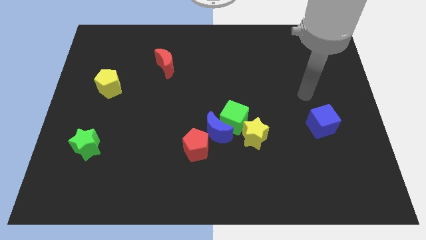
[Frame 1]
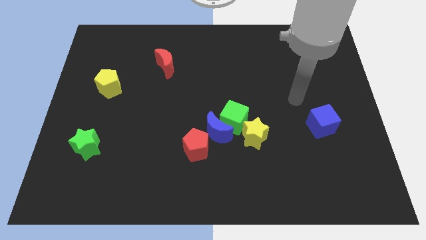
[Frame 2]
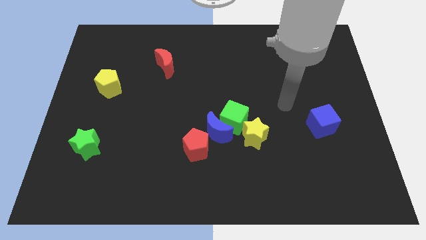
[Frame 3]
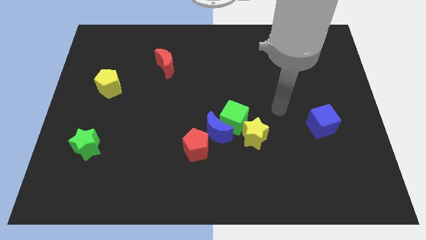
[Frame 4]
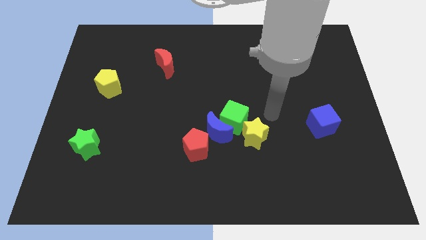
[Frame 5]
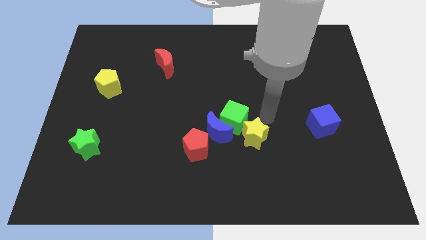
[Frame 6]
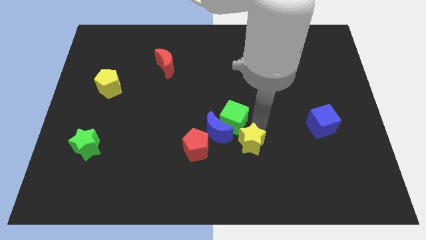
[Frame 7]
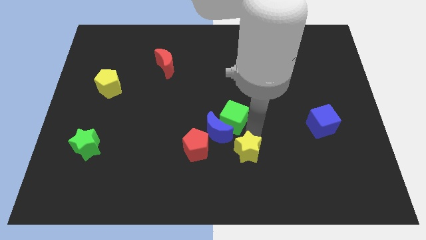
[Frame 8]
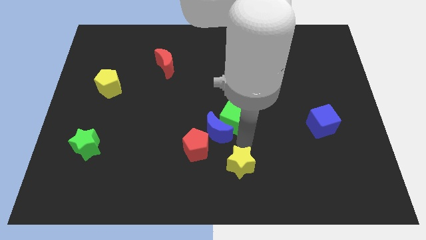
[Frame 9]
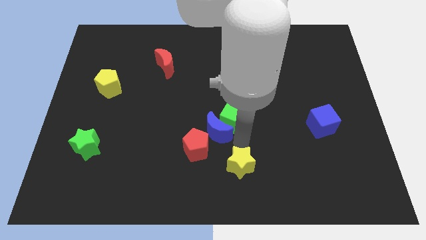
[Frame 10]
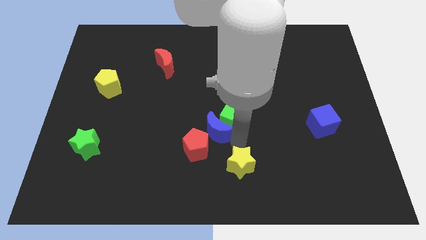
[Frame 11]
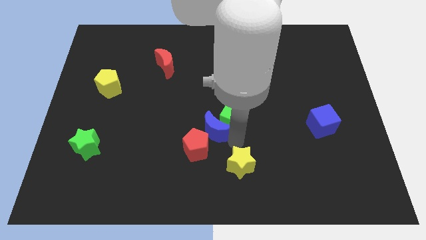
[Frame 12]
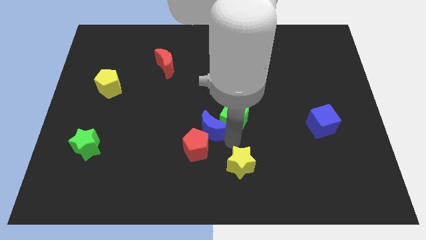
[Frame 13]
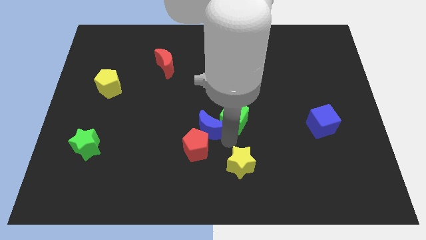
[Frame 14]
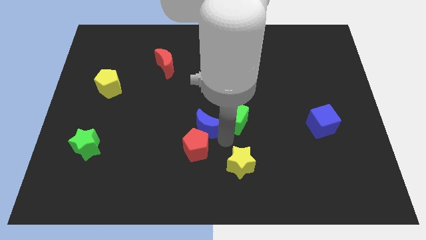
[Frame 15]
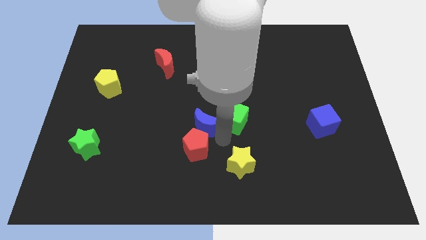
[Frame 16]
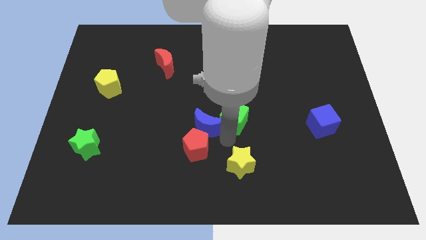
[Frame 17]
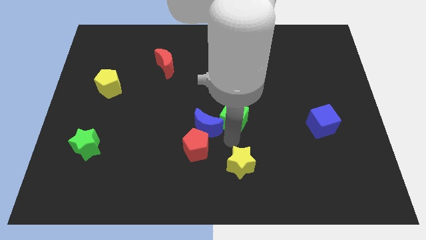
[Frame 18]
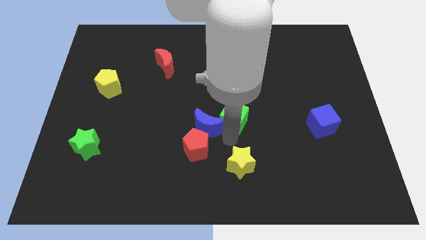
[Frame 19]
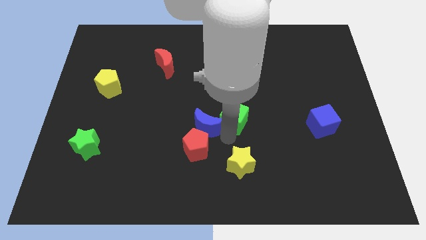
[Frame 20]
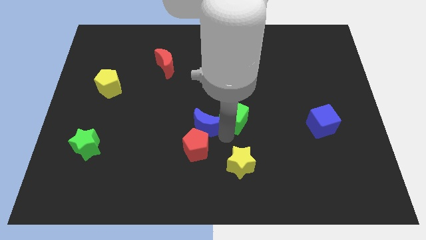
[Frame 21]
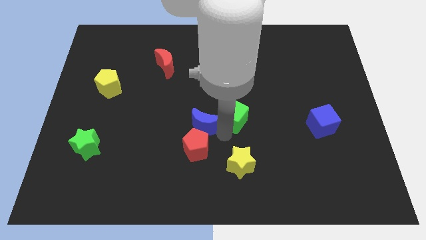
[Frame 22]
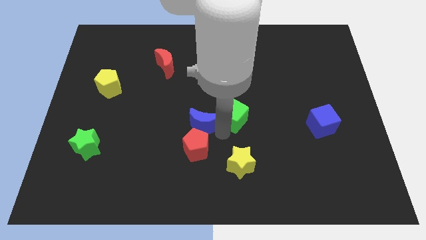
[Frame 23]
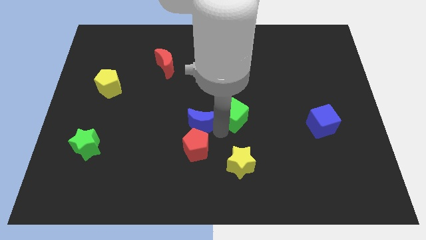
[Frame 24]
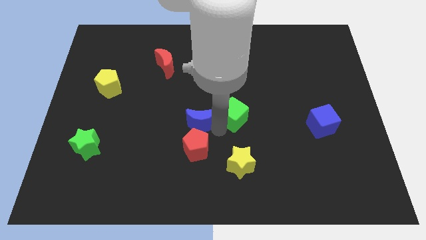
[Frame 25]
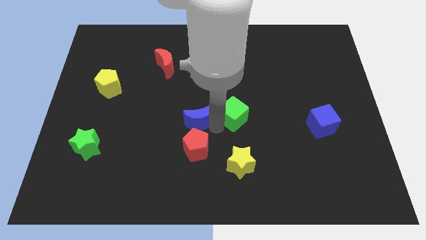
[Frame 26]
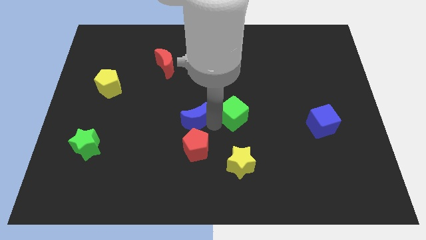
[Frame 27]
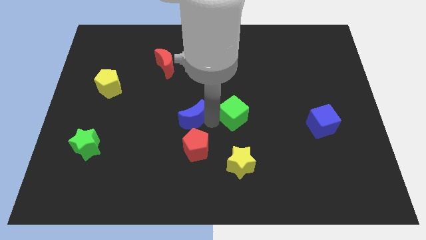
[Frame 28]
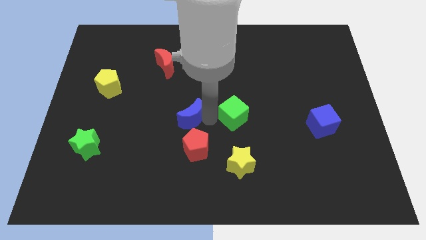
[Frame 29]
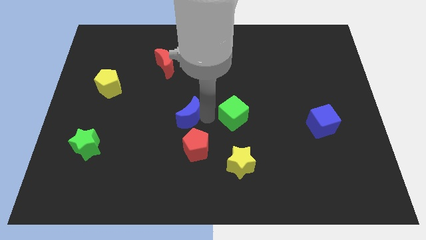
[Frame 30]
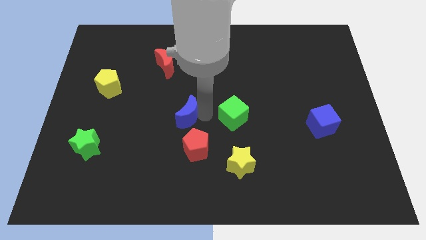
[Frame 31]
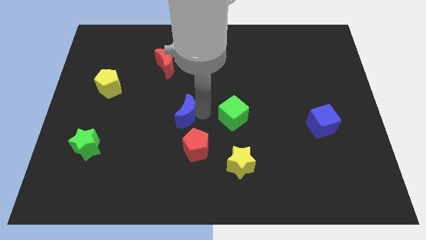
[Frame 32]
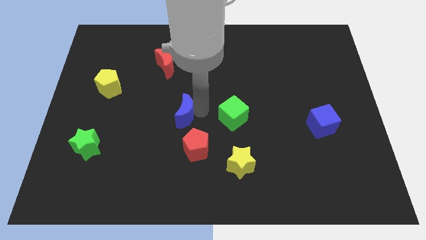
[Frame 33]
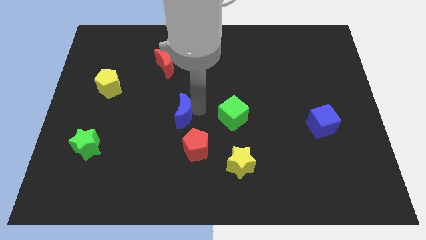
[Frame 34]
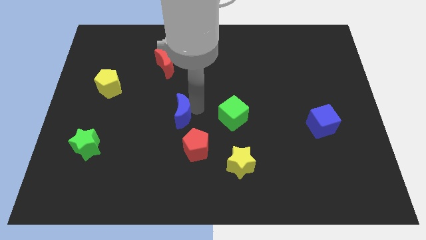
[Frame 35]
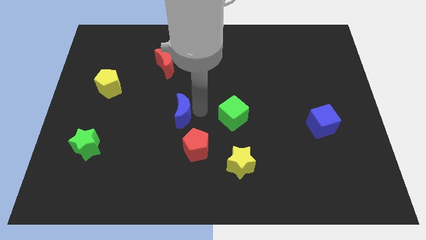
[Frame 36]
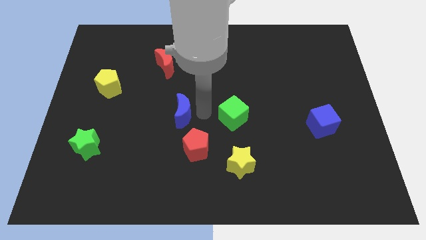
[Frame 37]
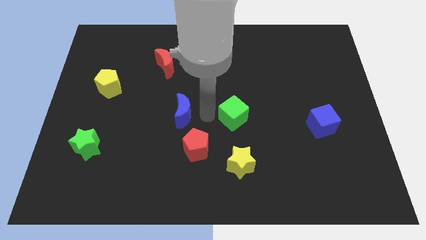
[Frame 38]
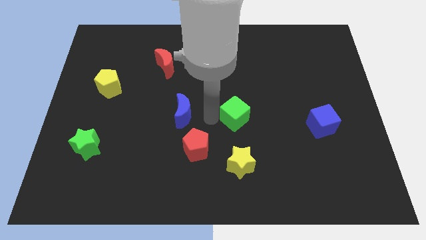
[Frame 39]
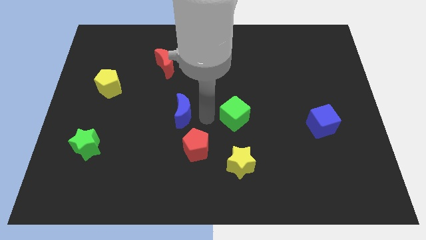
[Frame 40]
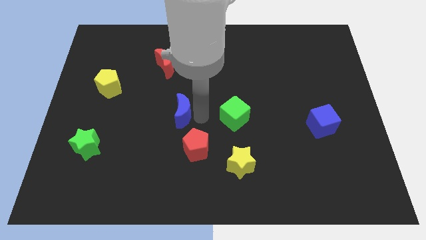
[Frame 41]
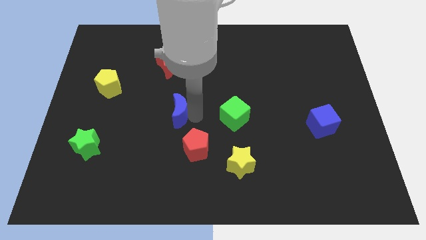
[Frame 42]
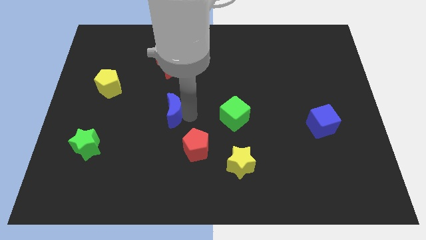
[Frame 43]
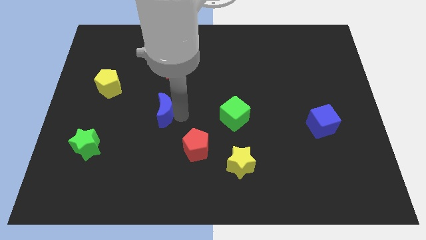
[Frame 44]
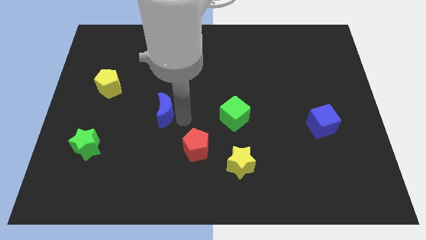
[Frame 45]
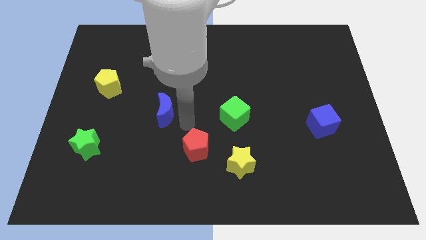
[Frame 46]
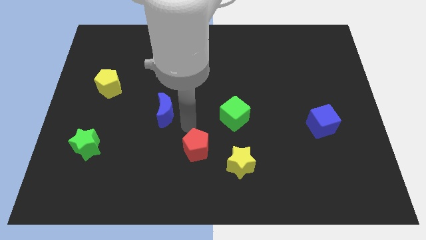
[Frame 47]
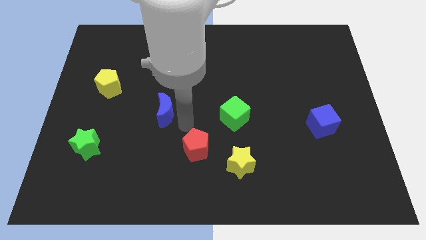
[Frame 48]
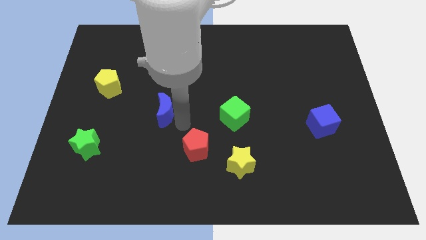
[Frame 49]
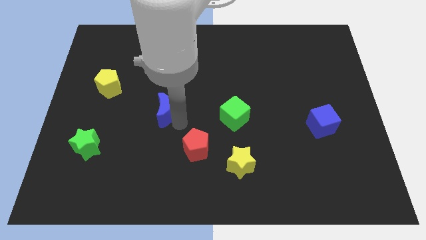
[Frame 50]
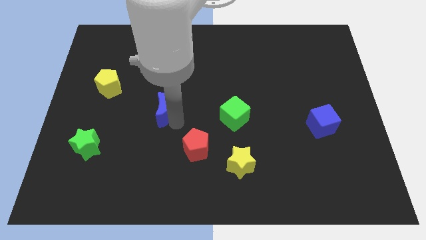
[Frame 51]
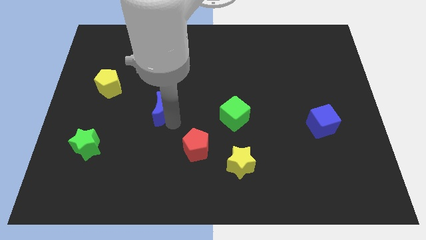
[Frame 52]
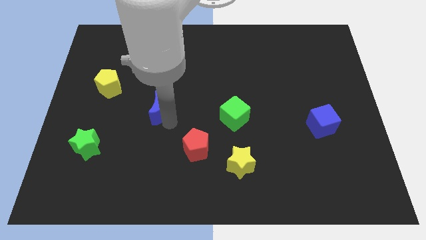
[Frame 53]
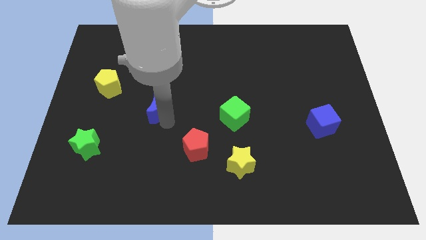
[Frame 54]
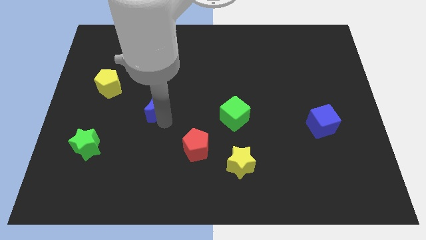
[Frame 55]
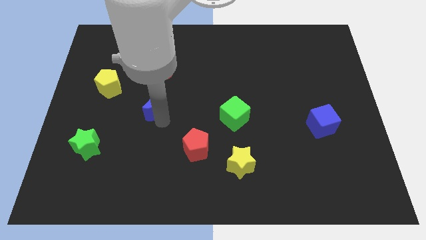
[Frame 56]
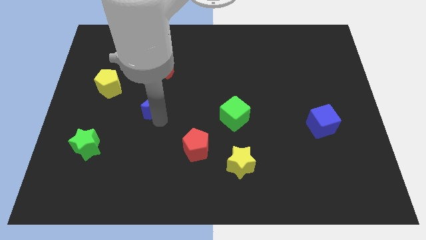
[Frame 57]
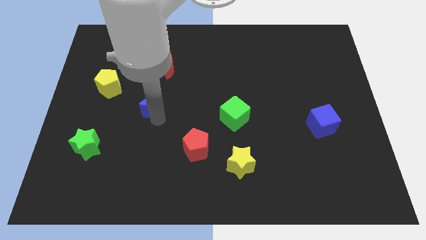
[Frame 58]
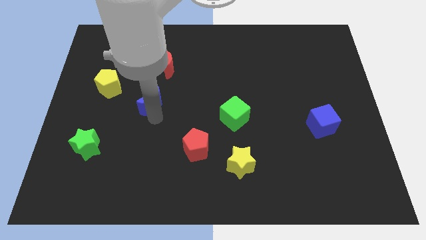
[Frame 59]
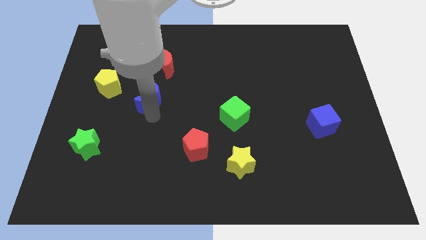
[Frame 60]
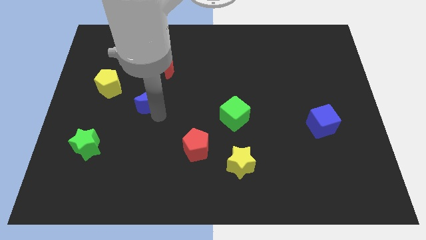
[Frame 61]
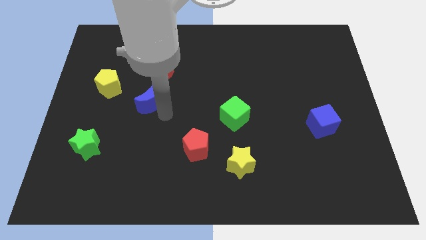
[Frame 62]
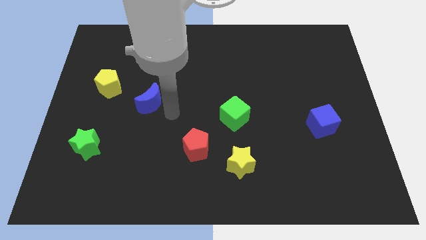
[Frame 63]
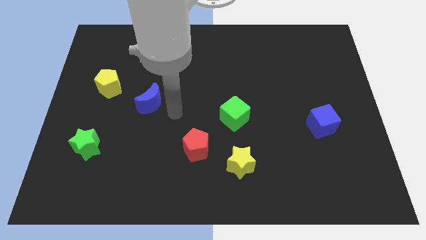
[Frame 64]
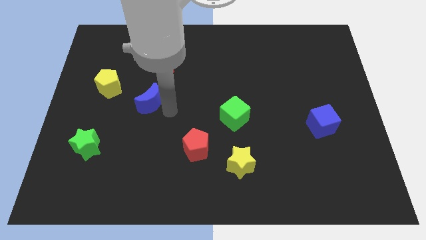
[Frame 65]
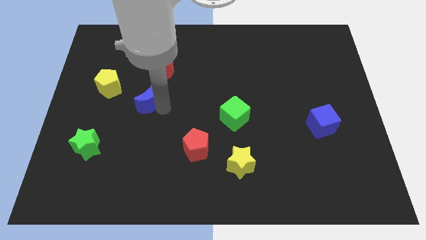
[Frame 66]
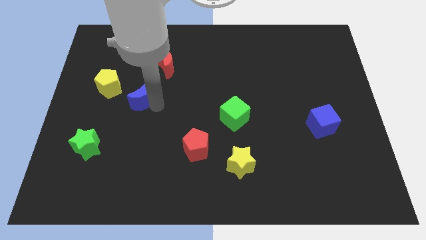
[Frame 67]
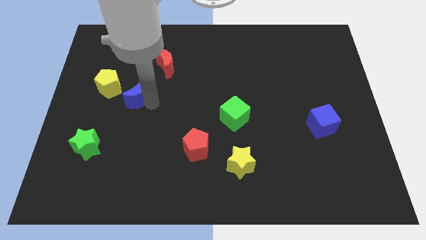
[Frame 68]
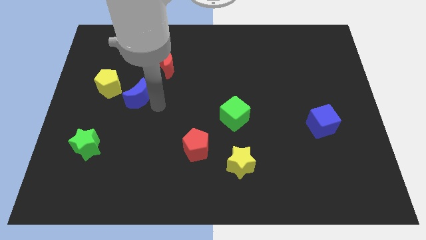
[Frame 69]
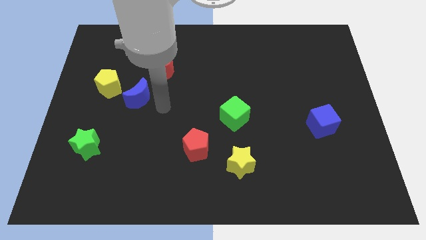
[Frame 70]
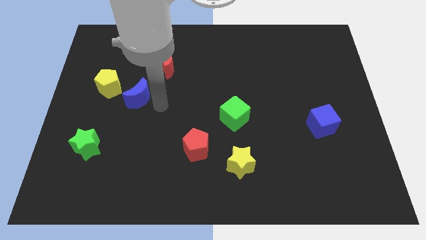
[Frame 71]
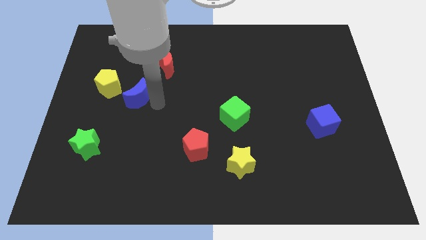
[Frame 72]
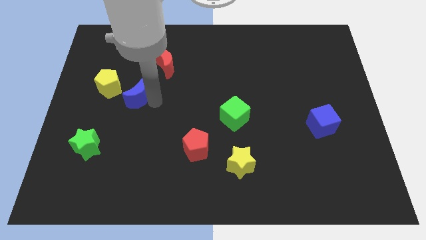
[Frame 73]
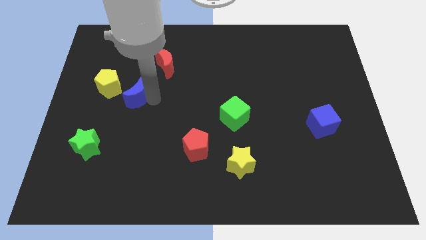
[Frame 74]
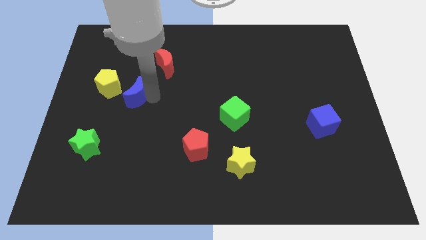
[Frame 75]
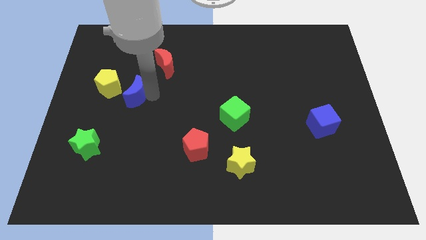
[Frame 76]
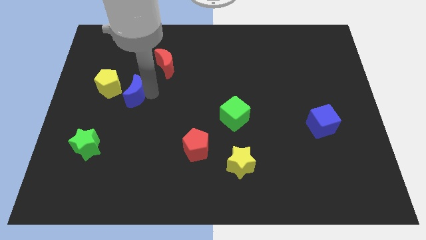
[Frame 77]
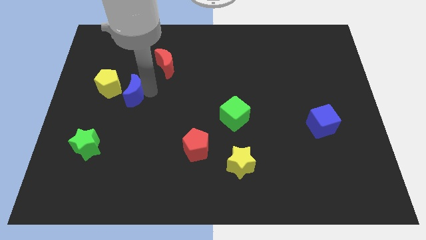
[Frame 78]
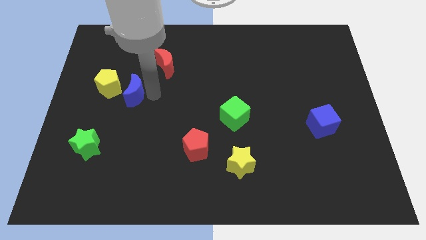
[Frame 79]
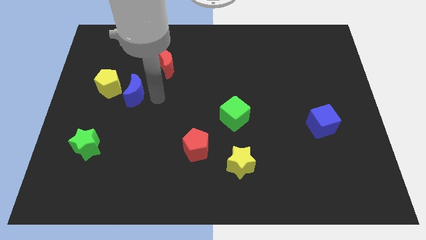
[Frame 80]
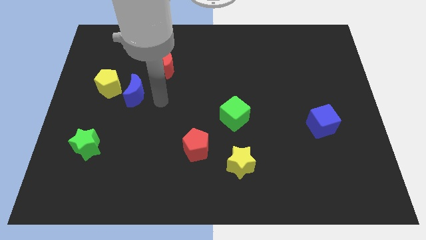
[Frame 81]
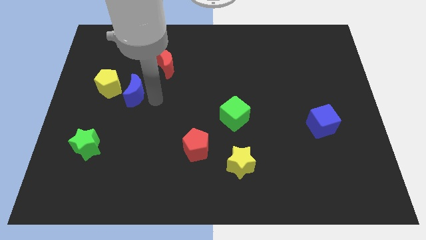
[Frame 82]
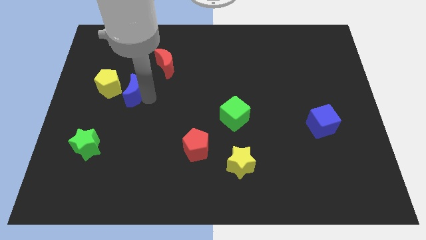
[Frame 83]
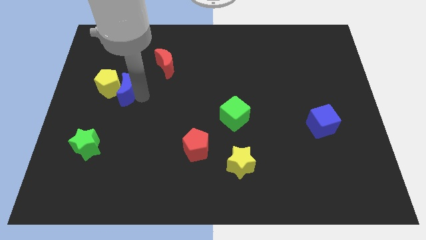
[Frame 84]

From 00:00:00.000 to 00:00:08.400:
push the blue moon to the yellow pentagon
